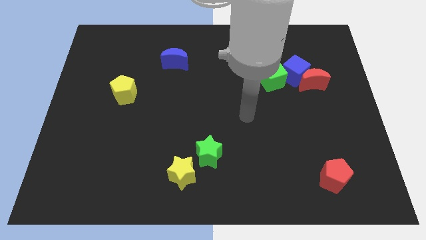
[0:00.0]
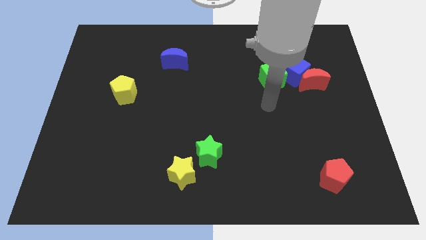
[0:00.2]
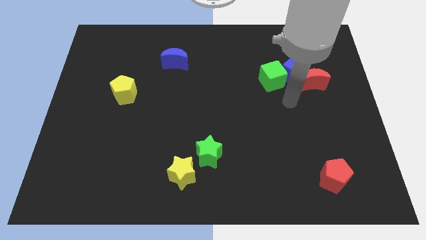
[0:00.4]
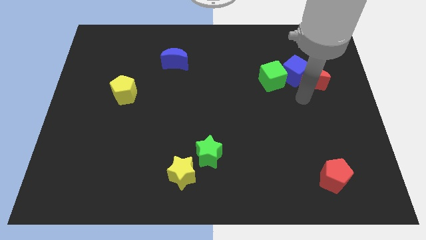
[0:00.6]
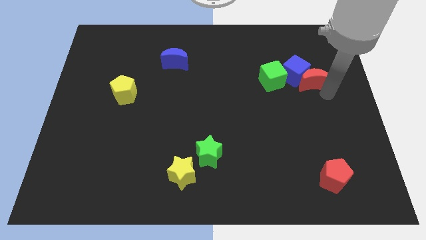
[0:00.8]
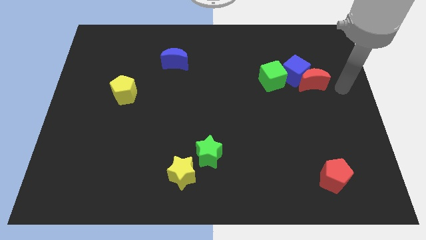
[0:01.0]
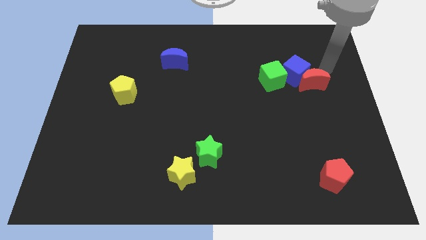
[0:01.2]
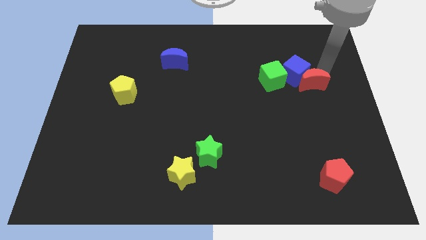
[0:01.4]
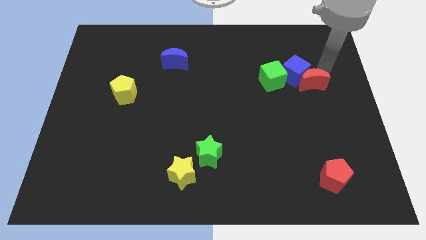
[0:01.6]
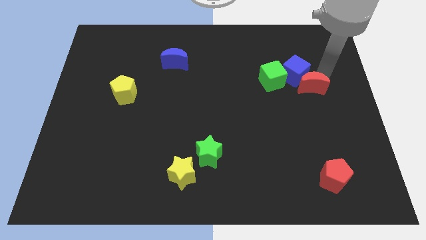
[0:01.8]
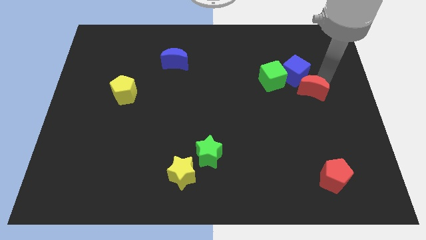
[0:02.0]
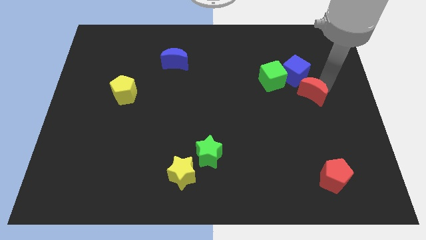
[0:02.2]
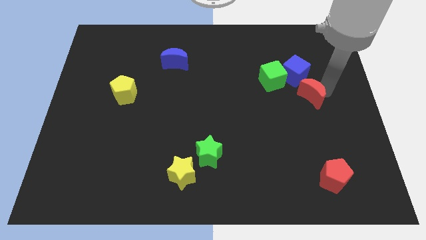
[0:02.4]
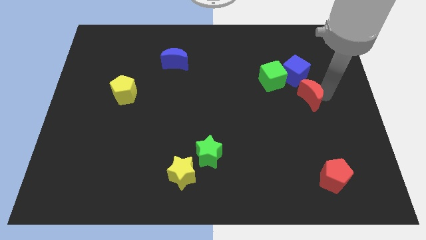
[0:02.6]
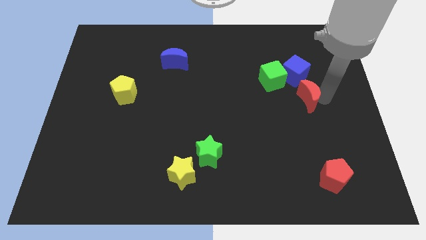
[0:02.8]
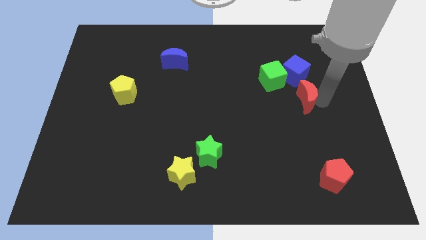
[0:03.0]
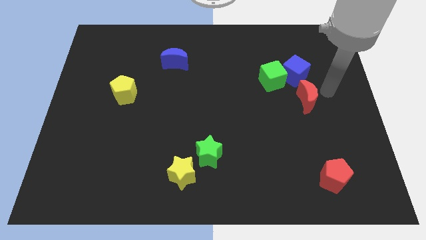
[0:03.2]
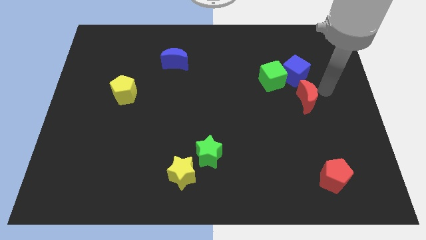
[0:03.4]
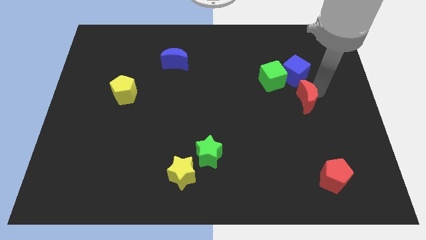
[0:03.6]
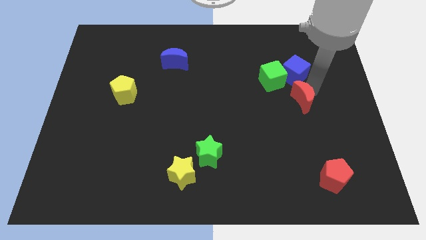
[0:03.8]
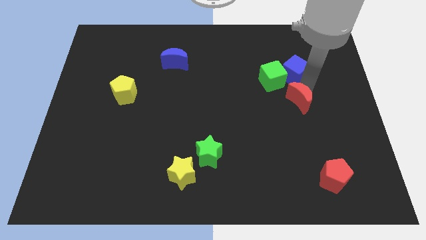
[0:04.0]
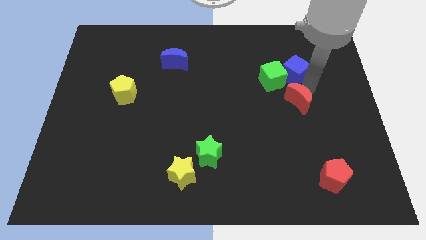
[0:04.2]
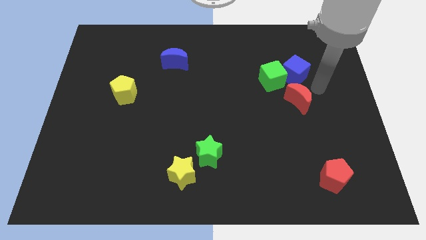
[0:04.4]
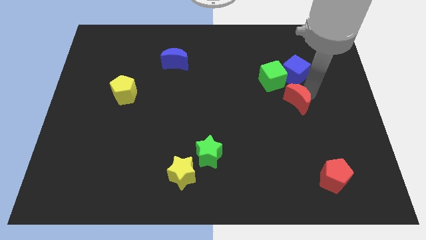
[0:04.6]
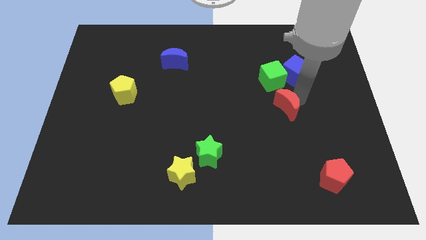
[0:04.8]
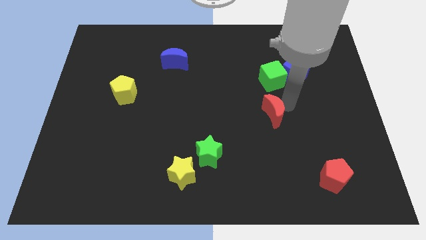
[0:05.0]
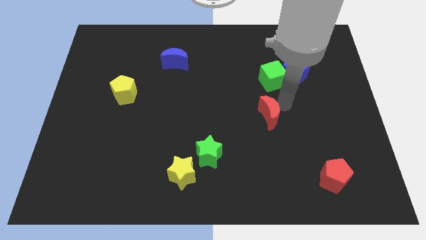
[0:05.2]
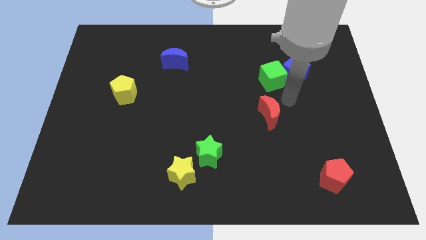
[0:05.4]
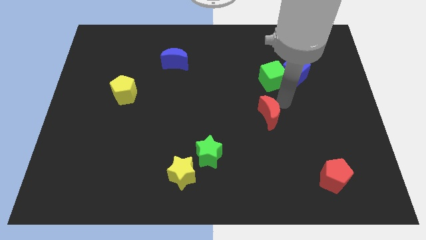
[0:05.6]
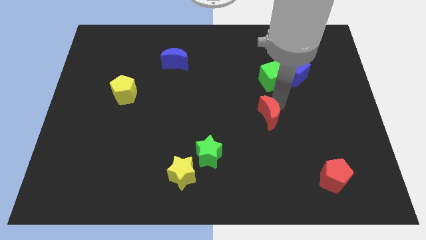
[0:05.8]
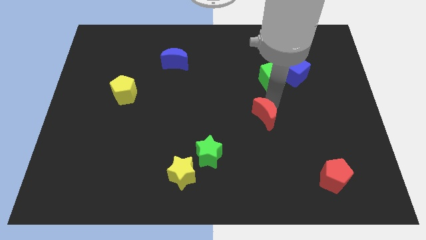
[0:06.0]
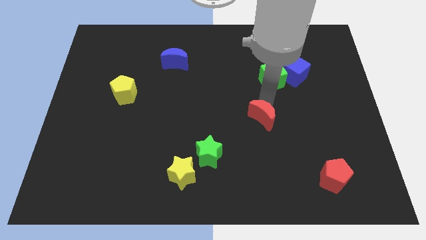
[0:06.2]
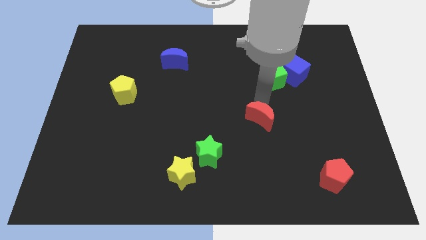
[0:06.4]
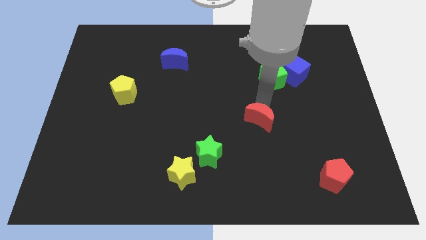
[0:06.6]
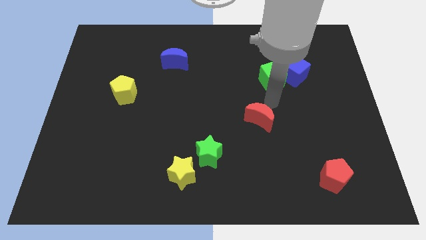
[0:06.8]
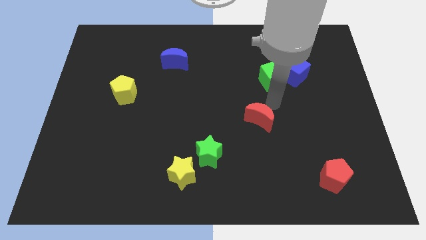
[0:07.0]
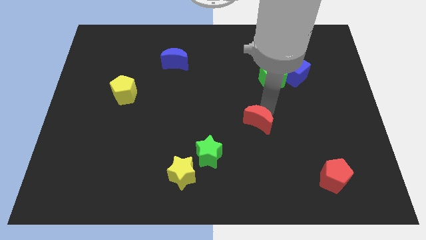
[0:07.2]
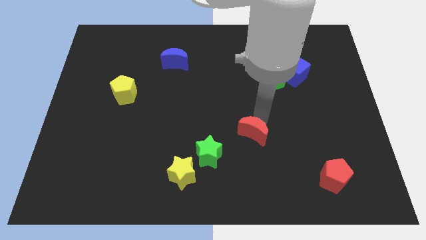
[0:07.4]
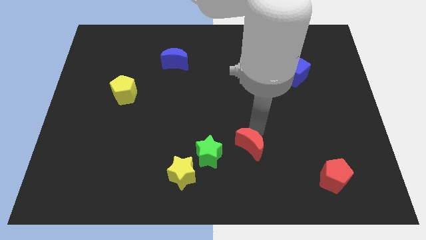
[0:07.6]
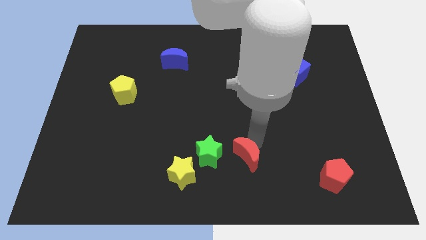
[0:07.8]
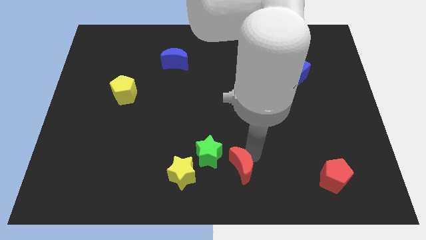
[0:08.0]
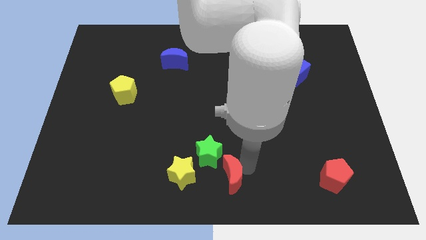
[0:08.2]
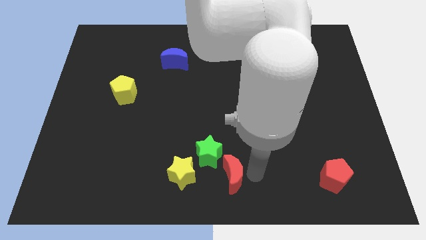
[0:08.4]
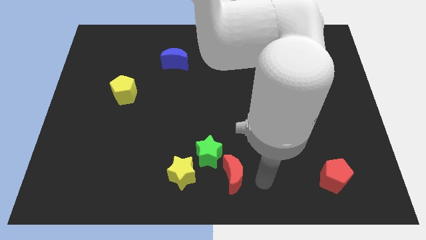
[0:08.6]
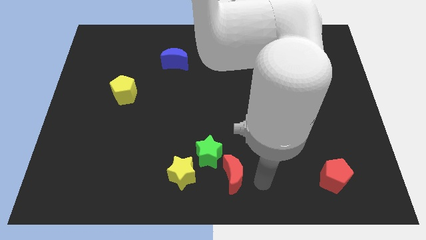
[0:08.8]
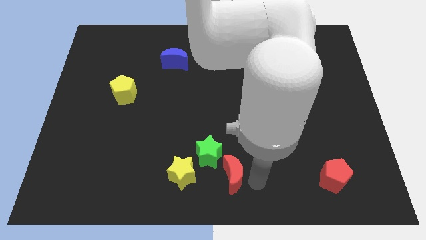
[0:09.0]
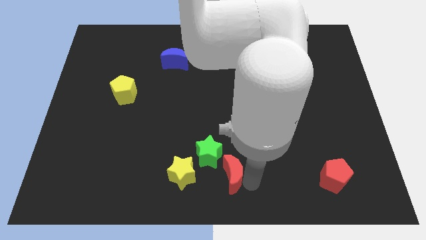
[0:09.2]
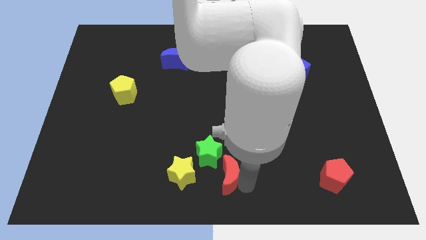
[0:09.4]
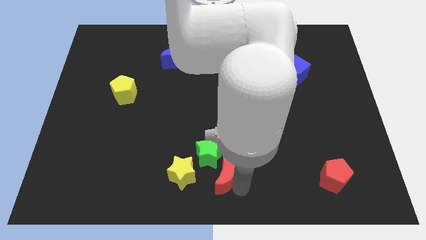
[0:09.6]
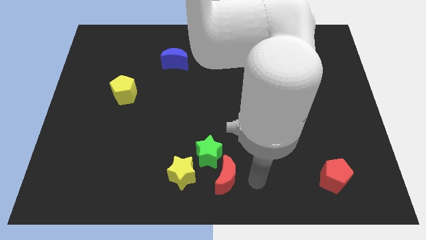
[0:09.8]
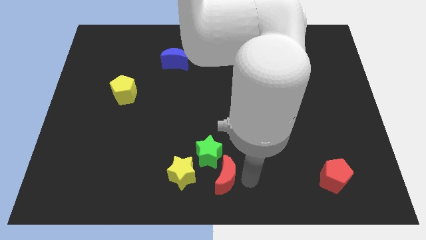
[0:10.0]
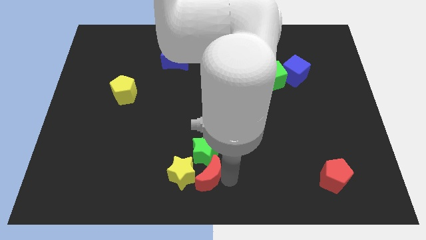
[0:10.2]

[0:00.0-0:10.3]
put the red moon close to the yellow star
